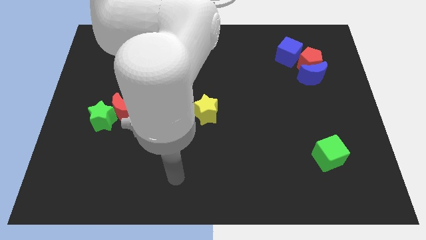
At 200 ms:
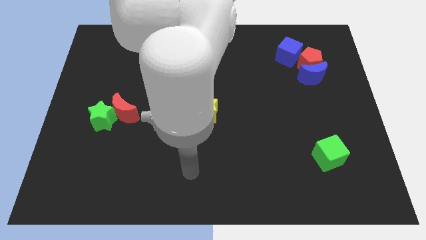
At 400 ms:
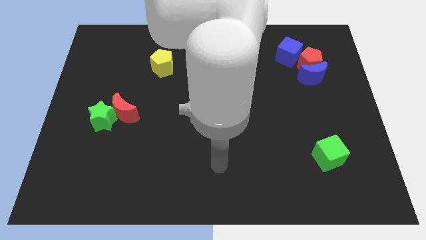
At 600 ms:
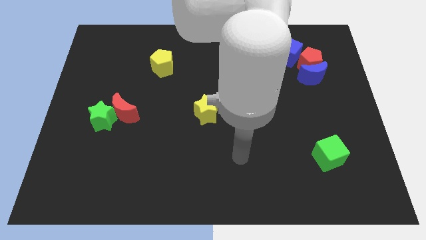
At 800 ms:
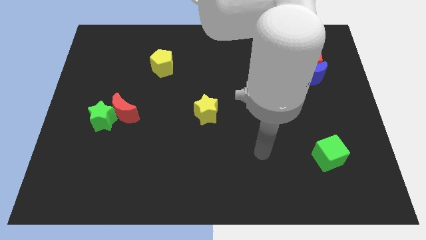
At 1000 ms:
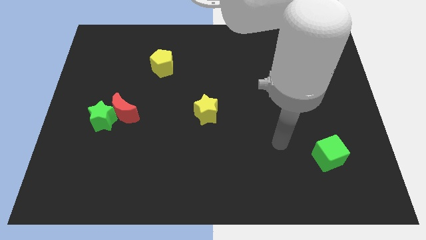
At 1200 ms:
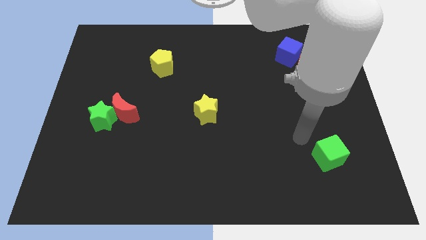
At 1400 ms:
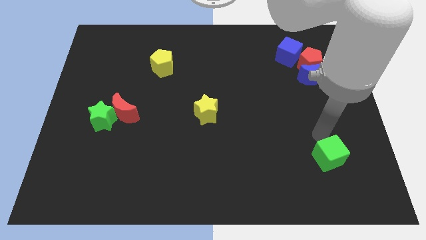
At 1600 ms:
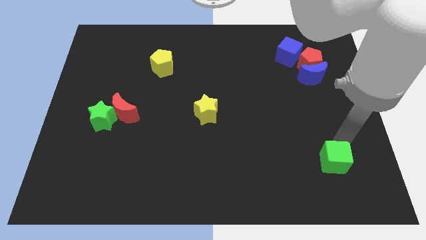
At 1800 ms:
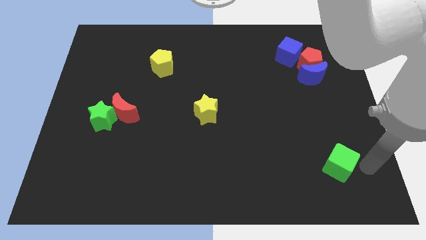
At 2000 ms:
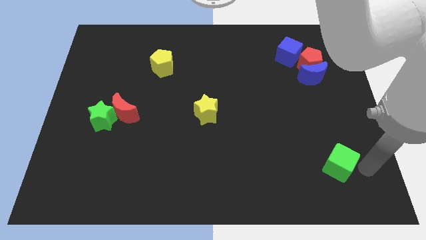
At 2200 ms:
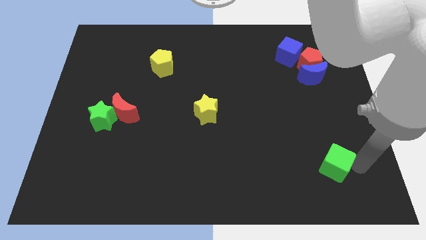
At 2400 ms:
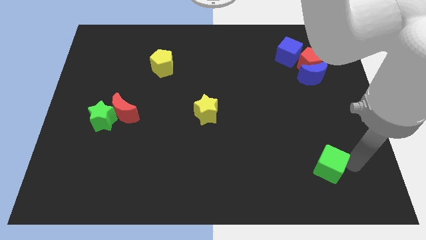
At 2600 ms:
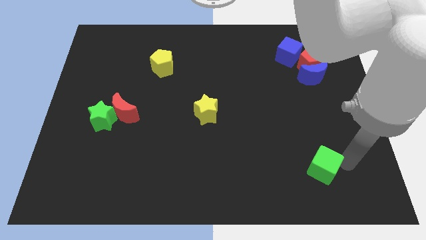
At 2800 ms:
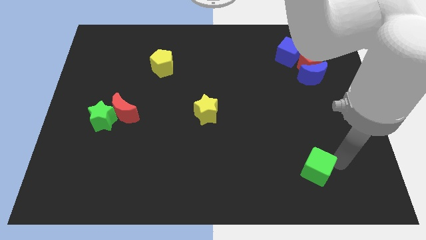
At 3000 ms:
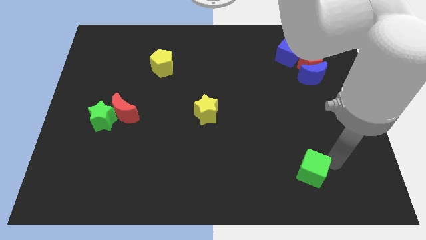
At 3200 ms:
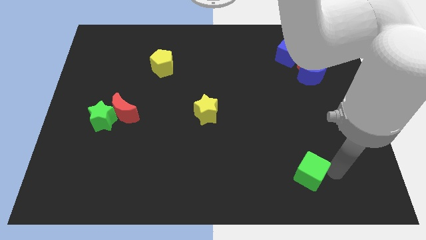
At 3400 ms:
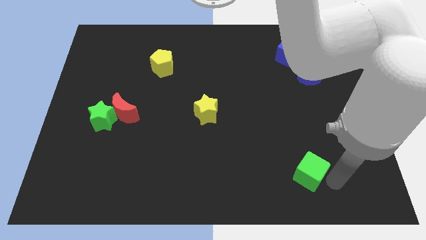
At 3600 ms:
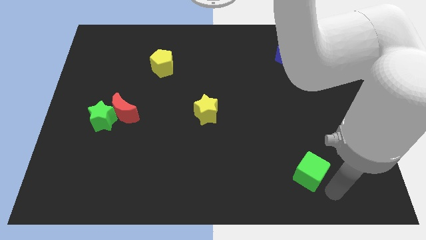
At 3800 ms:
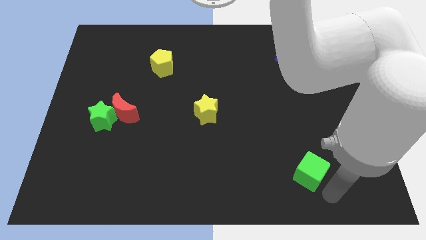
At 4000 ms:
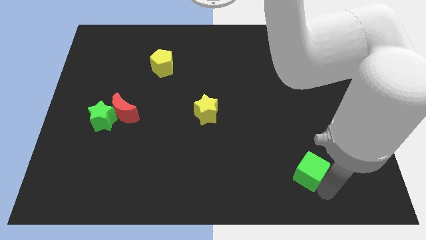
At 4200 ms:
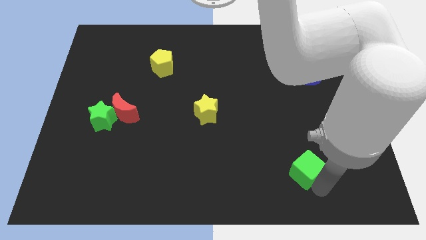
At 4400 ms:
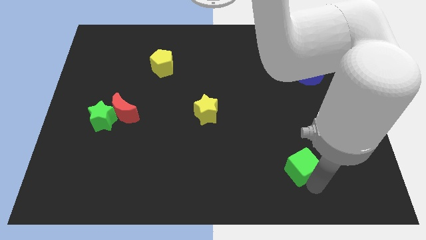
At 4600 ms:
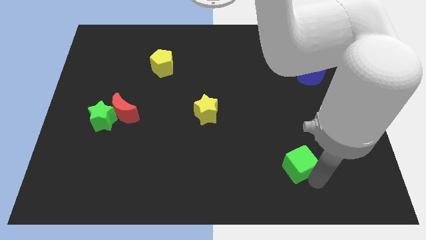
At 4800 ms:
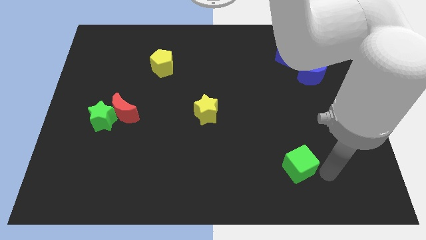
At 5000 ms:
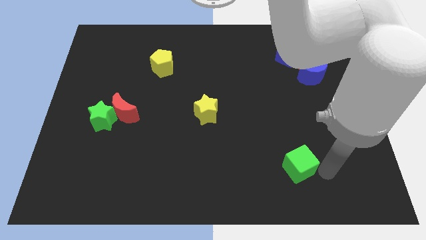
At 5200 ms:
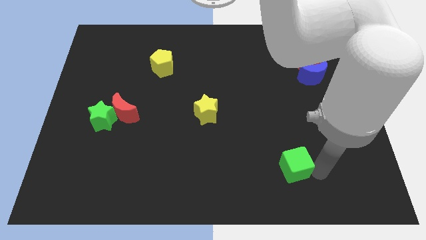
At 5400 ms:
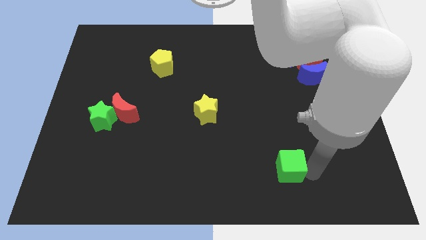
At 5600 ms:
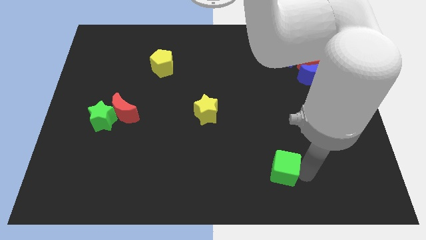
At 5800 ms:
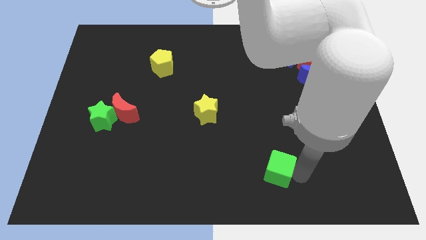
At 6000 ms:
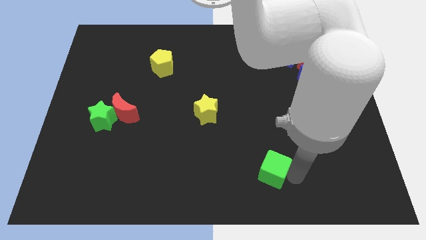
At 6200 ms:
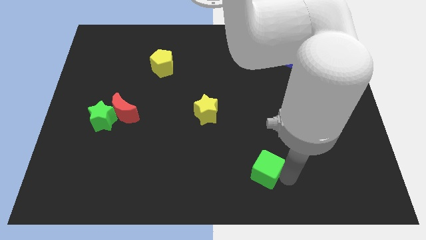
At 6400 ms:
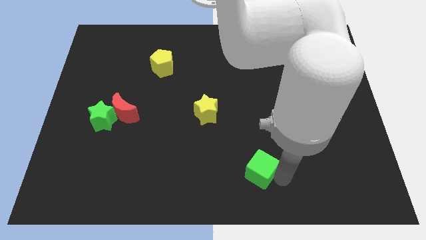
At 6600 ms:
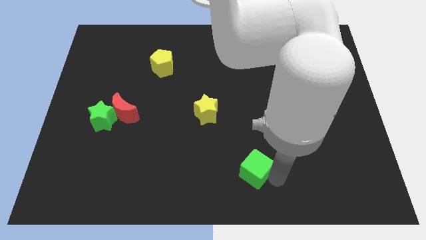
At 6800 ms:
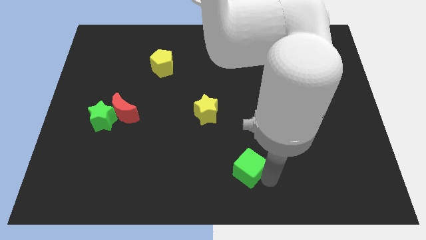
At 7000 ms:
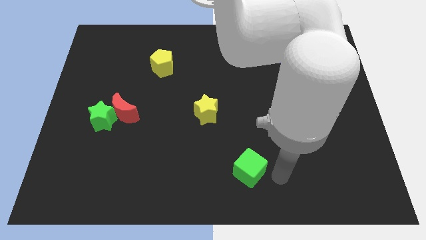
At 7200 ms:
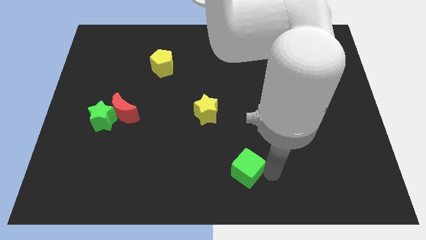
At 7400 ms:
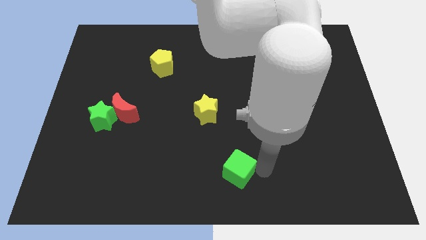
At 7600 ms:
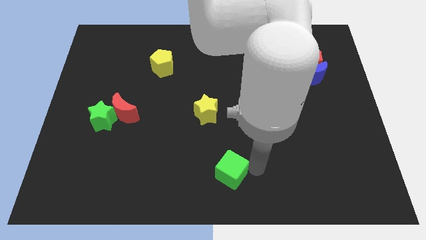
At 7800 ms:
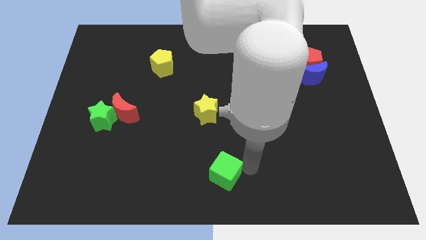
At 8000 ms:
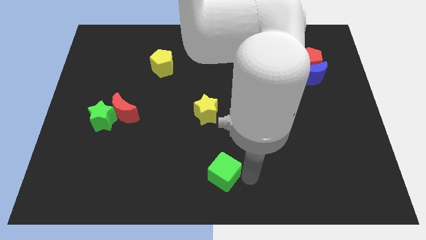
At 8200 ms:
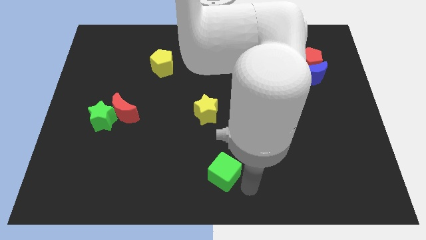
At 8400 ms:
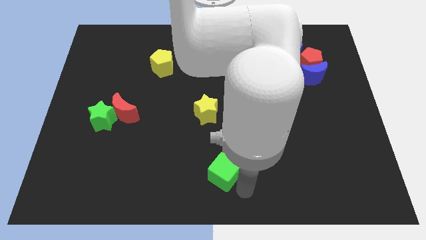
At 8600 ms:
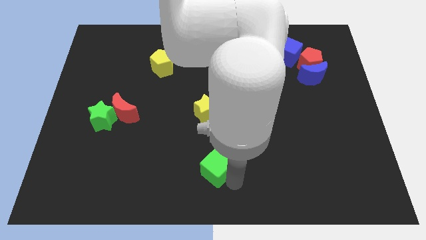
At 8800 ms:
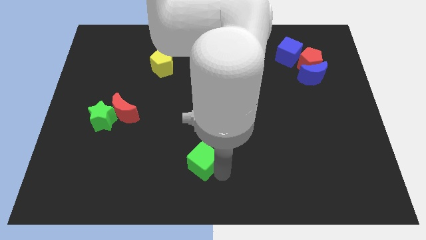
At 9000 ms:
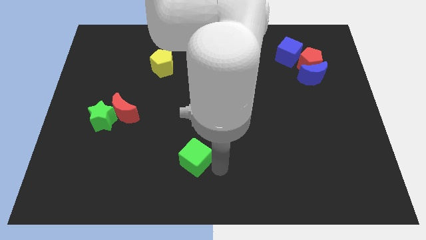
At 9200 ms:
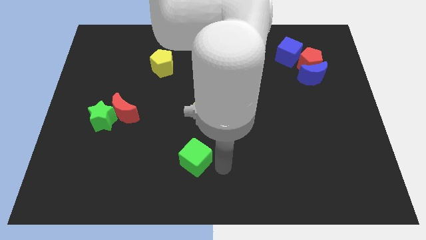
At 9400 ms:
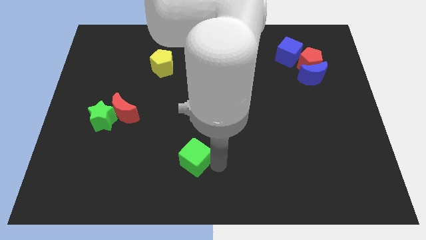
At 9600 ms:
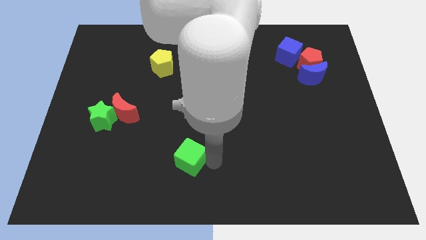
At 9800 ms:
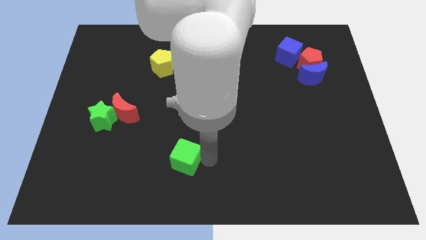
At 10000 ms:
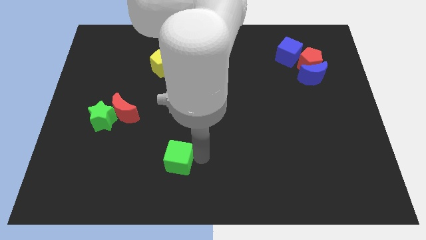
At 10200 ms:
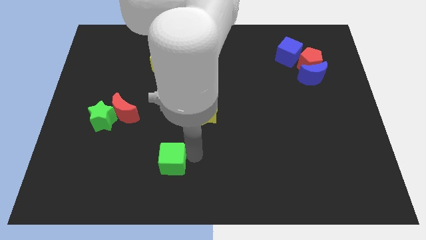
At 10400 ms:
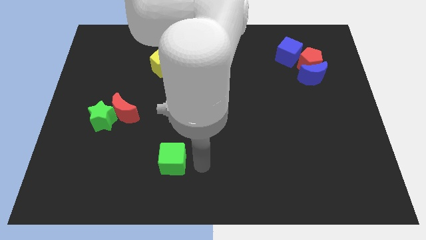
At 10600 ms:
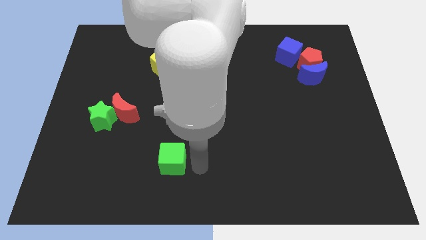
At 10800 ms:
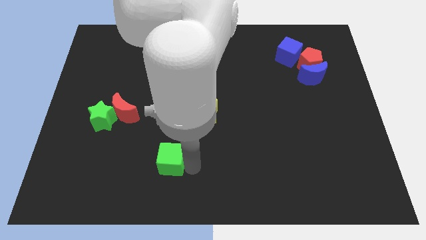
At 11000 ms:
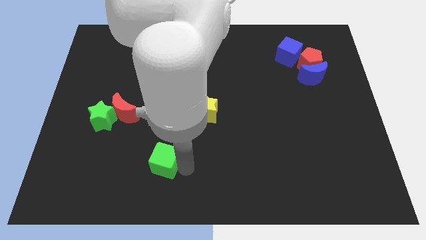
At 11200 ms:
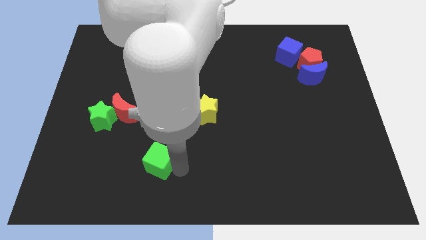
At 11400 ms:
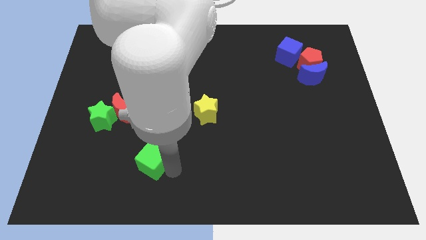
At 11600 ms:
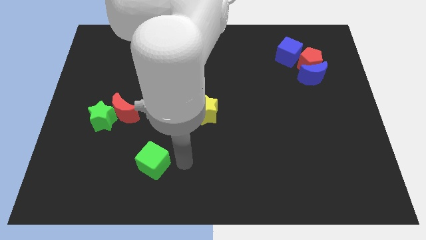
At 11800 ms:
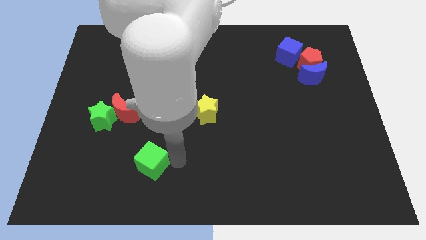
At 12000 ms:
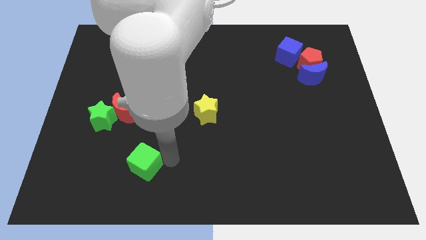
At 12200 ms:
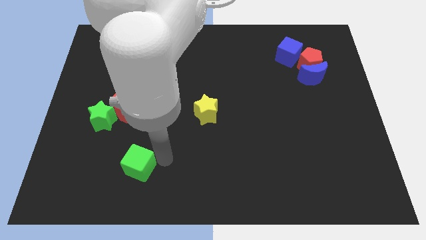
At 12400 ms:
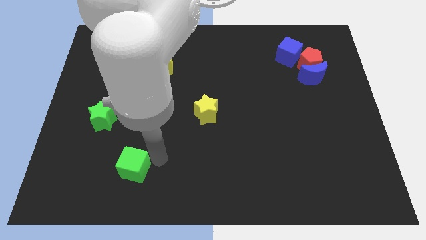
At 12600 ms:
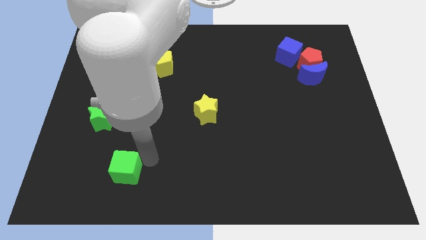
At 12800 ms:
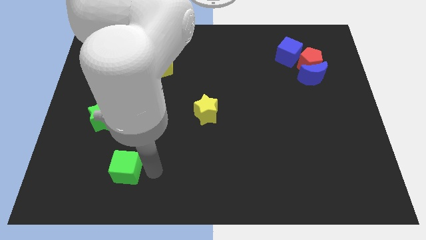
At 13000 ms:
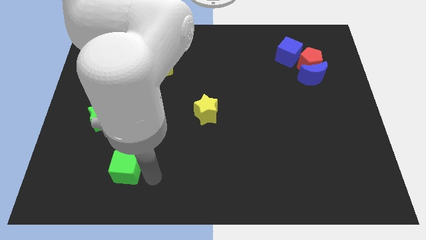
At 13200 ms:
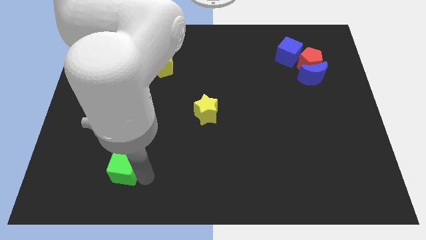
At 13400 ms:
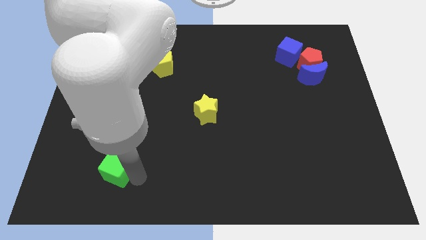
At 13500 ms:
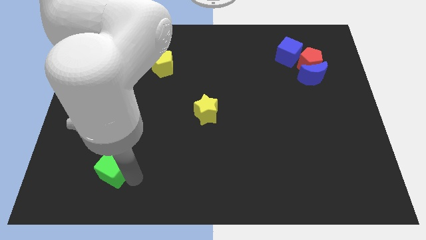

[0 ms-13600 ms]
slide the green cube below the green star
